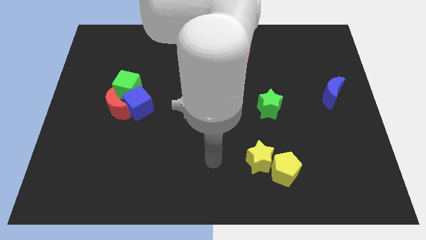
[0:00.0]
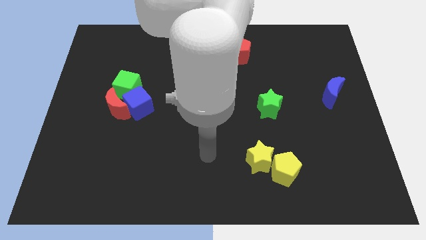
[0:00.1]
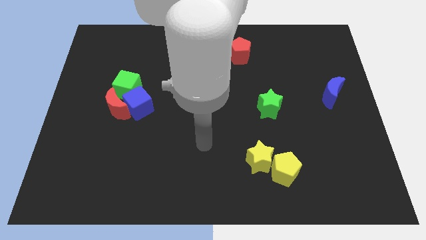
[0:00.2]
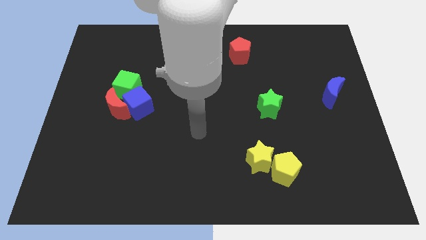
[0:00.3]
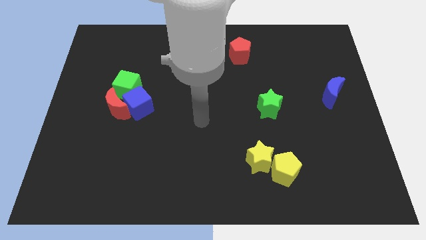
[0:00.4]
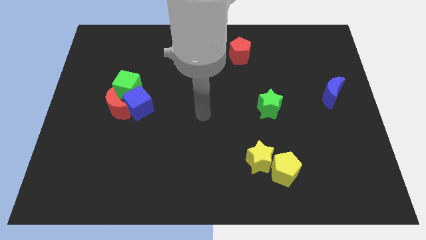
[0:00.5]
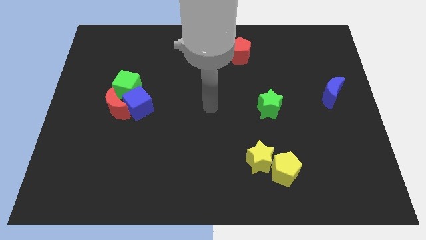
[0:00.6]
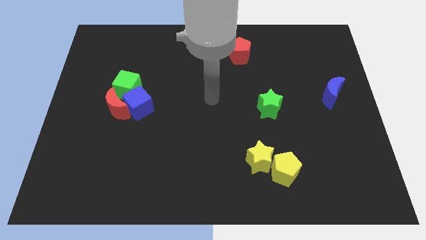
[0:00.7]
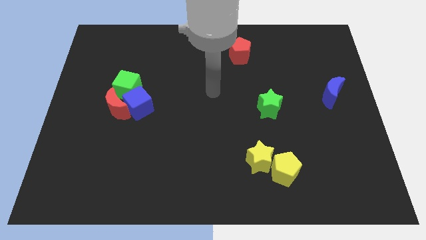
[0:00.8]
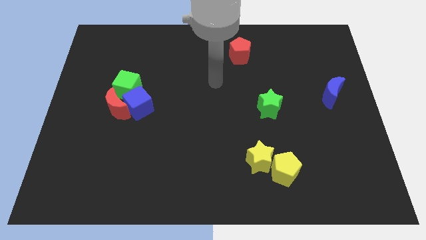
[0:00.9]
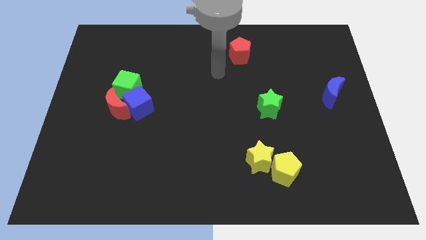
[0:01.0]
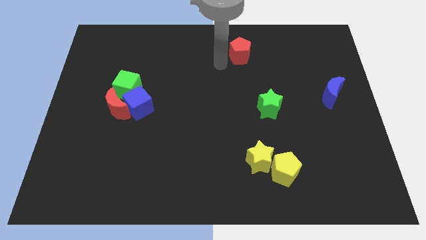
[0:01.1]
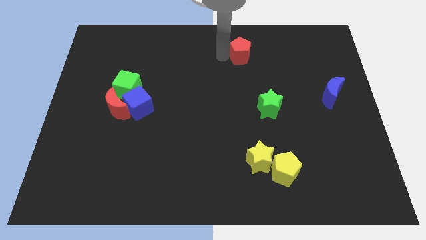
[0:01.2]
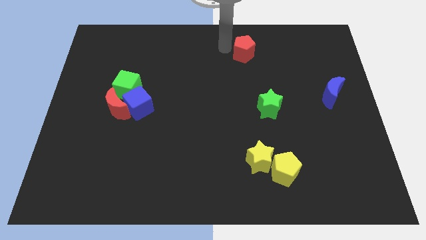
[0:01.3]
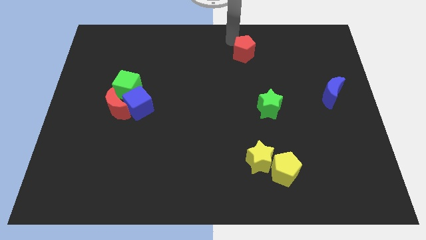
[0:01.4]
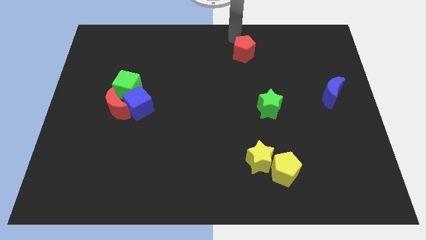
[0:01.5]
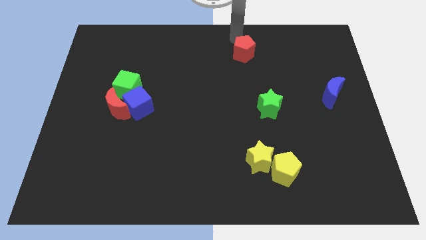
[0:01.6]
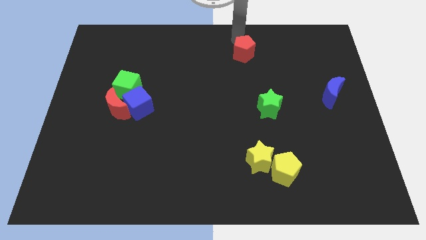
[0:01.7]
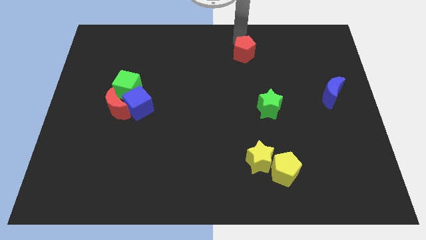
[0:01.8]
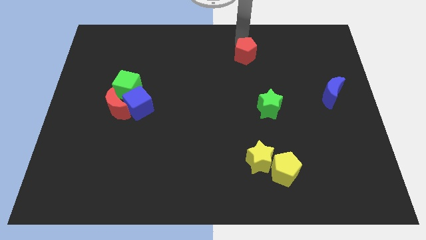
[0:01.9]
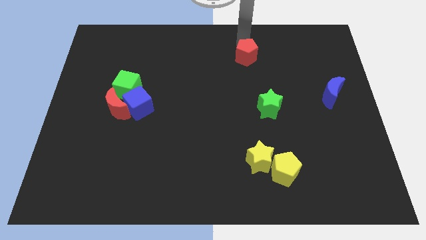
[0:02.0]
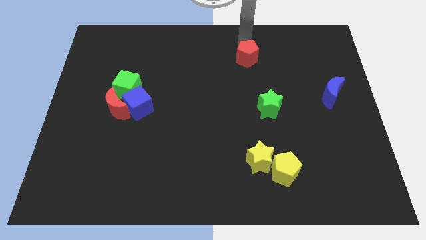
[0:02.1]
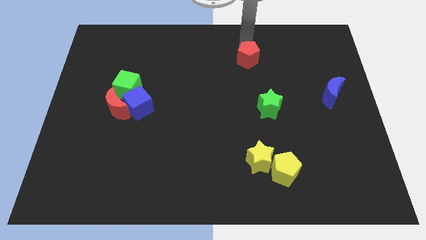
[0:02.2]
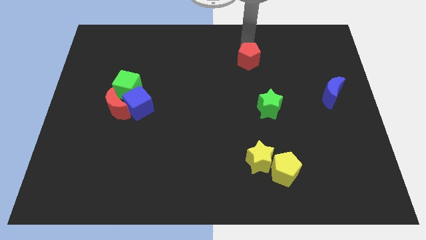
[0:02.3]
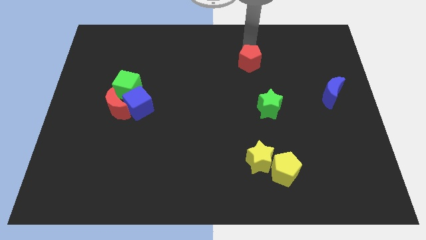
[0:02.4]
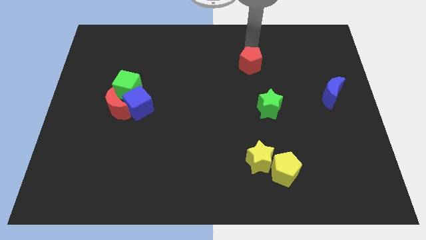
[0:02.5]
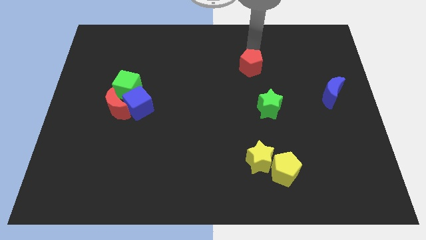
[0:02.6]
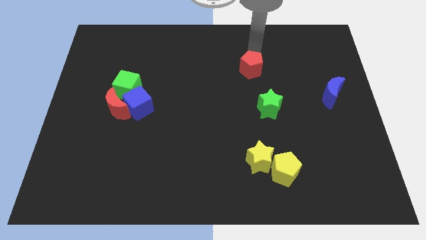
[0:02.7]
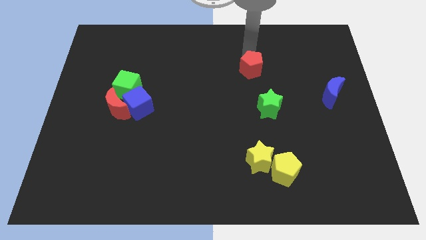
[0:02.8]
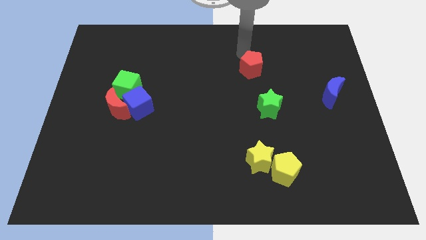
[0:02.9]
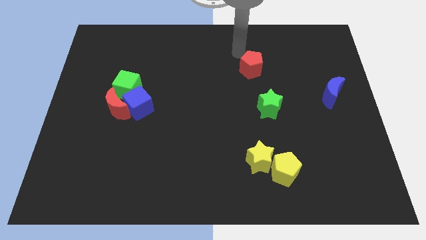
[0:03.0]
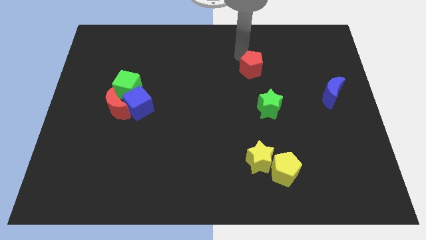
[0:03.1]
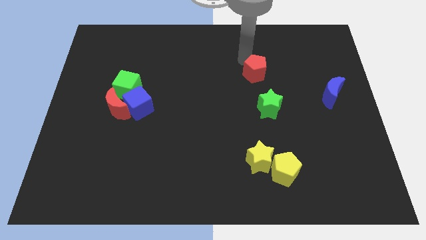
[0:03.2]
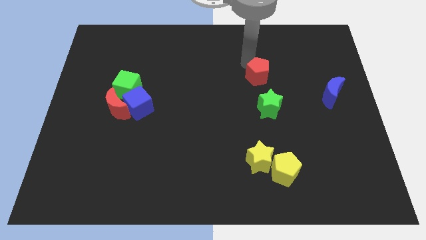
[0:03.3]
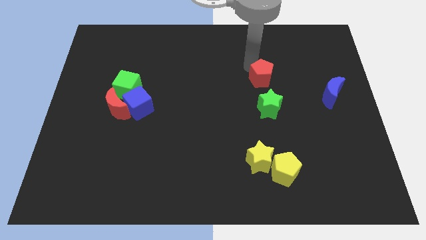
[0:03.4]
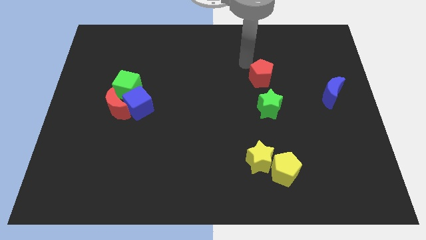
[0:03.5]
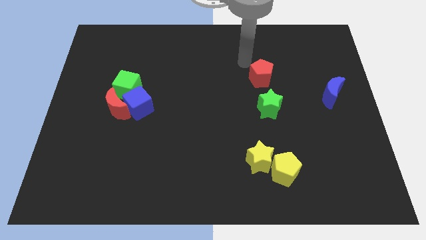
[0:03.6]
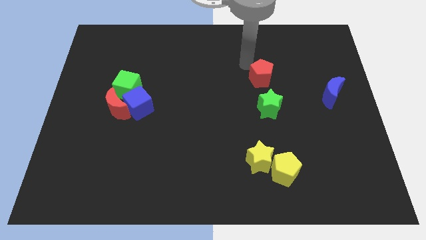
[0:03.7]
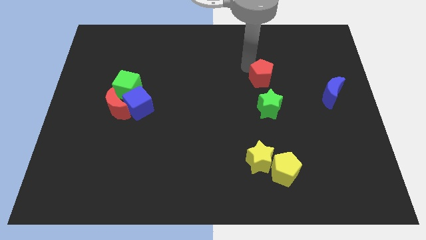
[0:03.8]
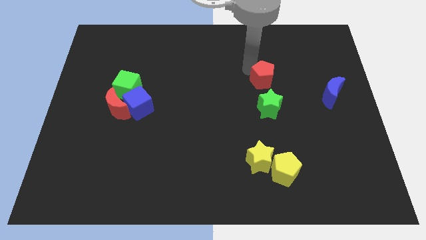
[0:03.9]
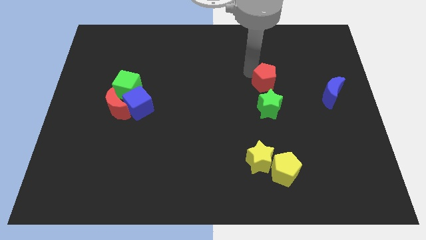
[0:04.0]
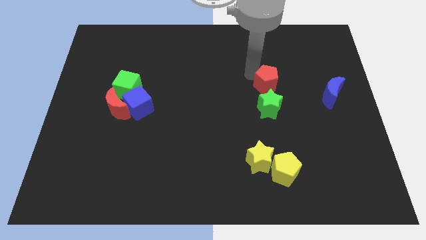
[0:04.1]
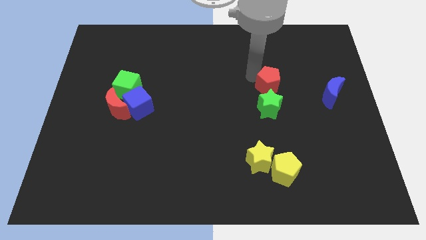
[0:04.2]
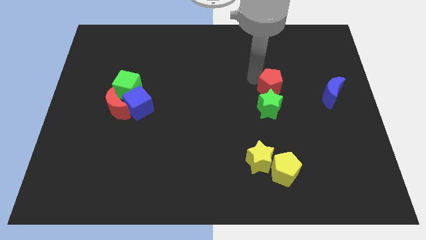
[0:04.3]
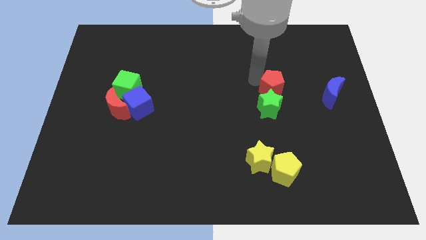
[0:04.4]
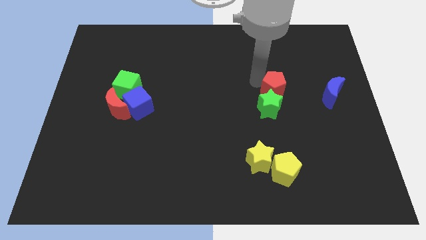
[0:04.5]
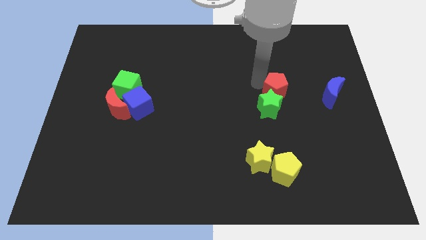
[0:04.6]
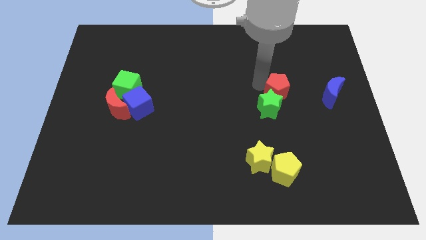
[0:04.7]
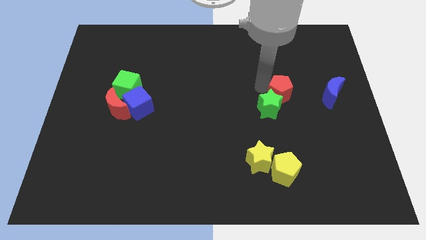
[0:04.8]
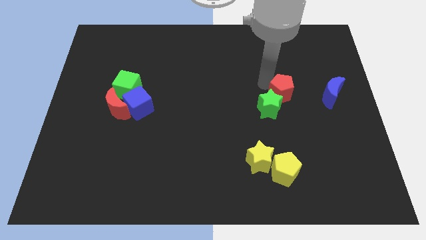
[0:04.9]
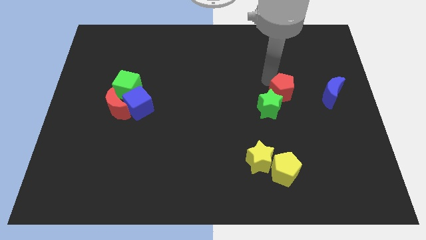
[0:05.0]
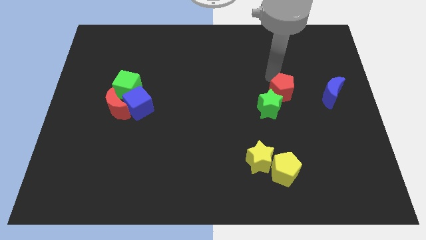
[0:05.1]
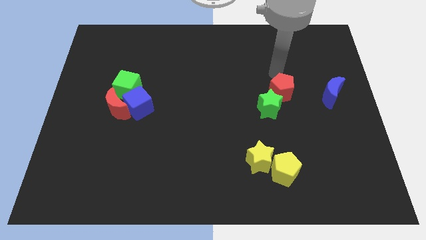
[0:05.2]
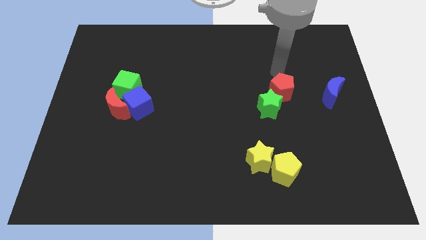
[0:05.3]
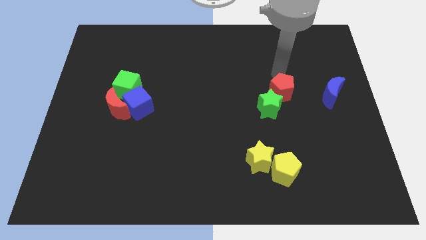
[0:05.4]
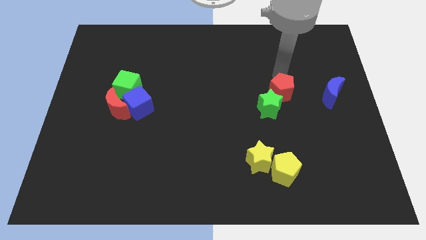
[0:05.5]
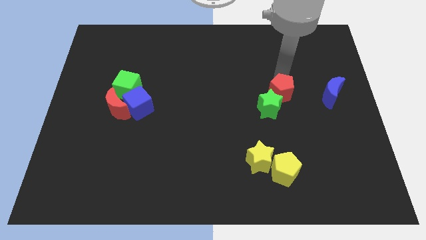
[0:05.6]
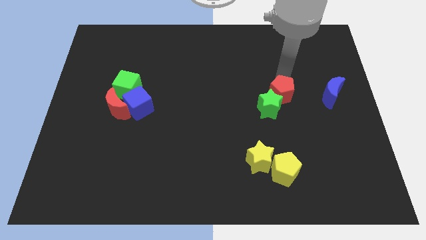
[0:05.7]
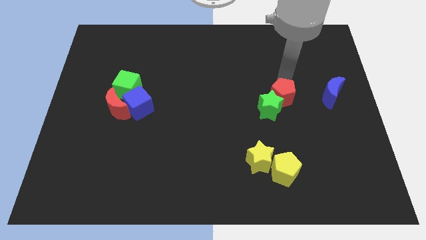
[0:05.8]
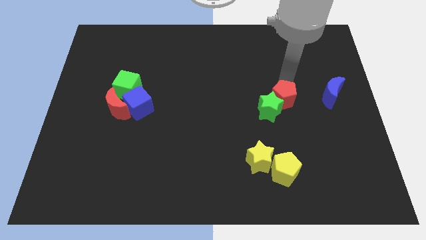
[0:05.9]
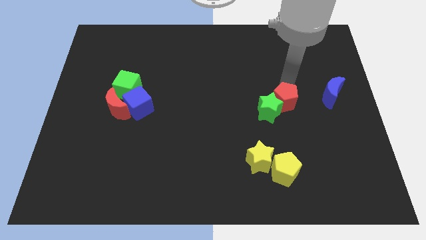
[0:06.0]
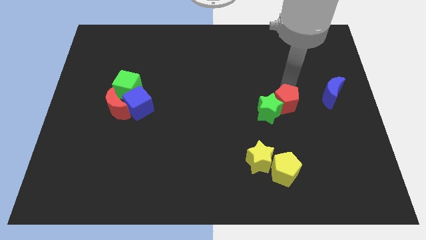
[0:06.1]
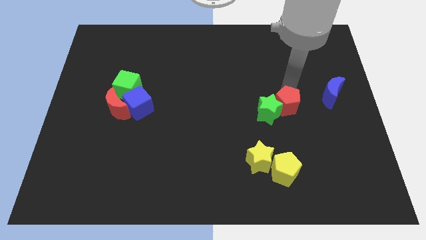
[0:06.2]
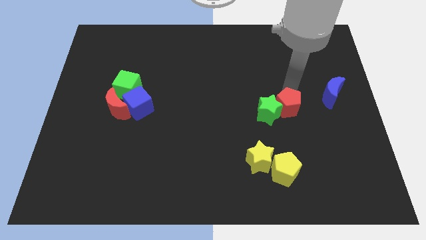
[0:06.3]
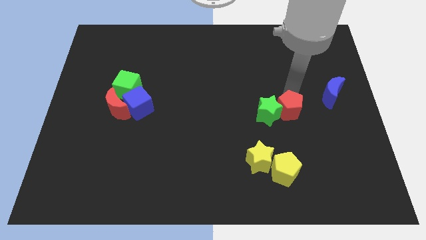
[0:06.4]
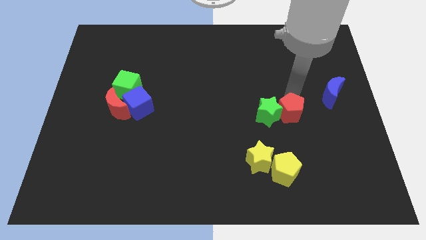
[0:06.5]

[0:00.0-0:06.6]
slide the red pentagon to the top side of the yellow pentagon
